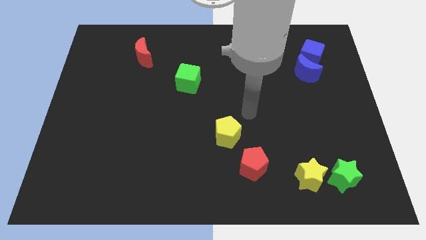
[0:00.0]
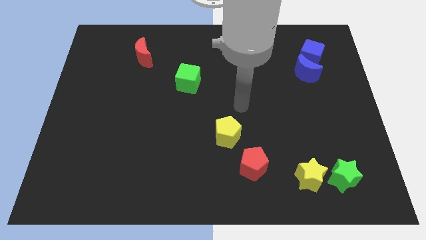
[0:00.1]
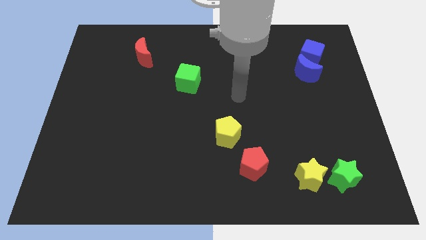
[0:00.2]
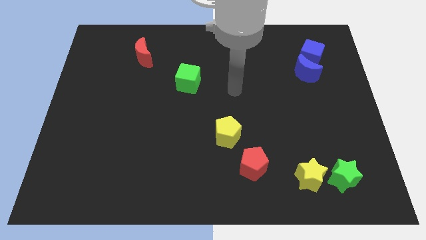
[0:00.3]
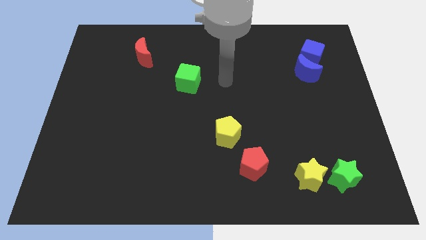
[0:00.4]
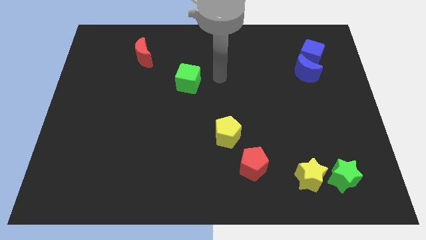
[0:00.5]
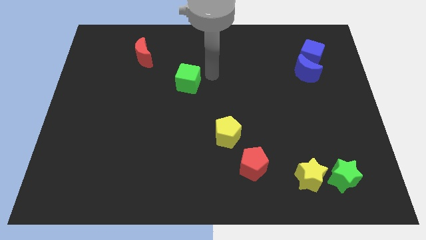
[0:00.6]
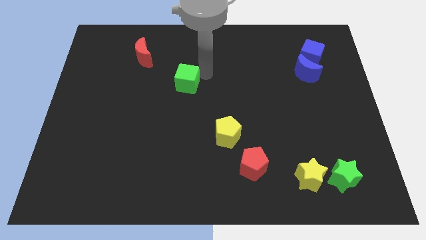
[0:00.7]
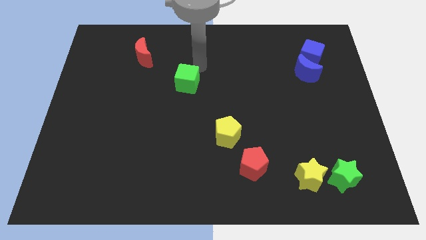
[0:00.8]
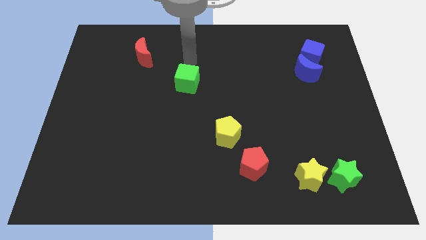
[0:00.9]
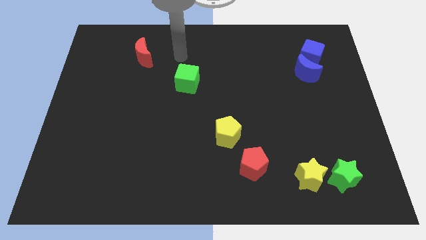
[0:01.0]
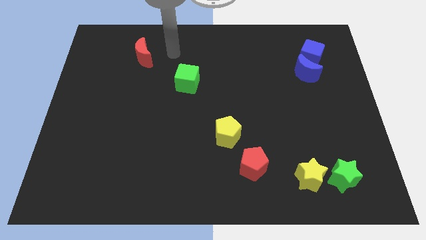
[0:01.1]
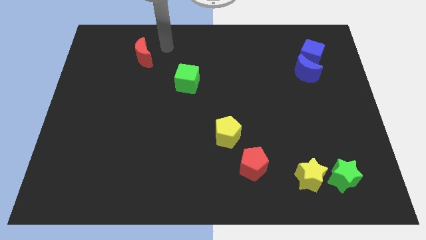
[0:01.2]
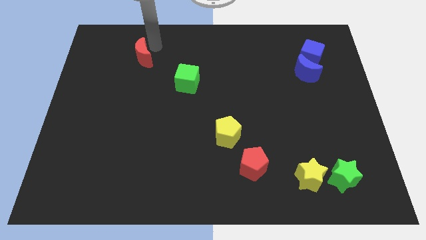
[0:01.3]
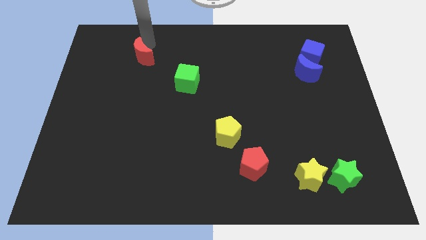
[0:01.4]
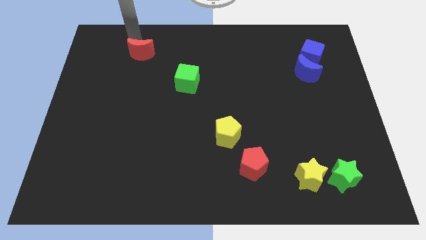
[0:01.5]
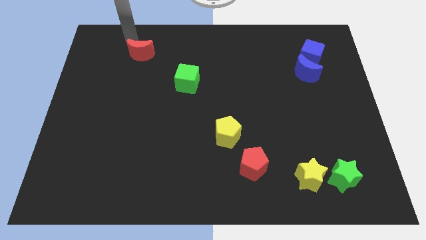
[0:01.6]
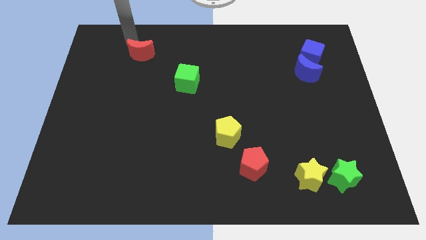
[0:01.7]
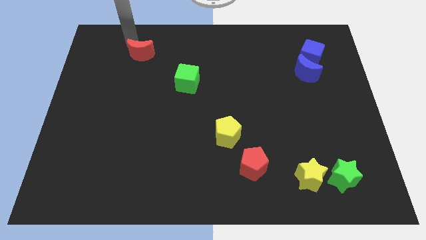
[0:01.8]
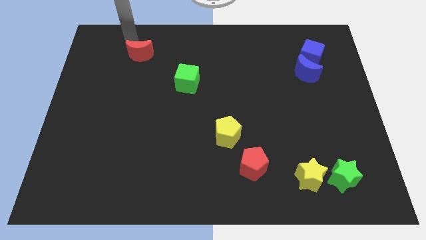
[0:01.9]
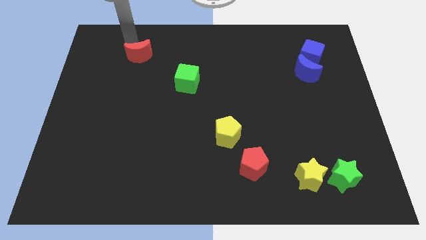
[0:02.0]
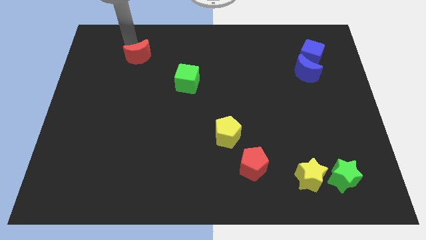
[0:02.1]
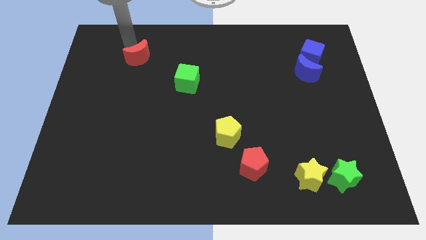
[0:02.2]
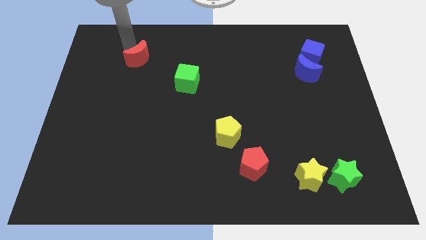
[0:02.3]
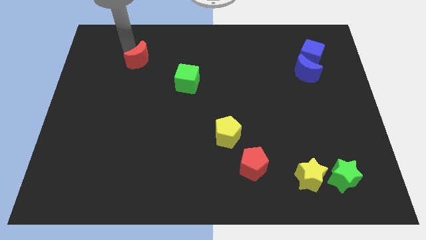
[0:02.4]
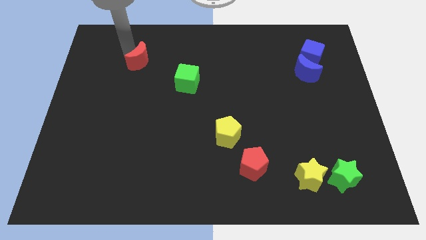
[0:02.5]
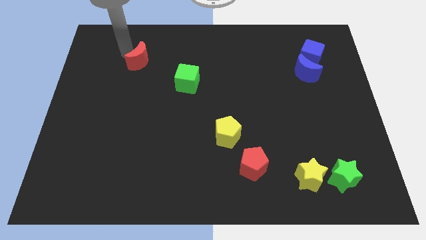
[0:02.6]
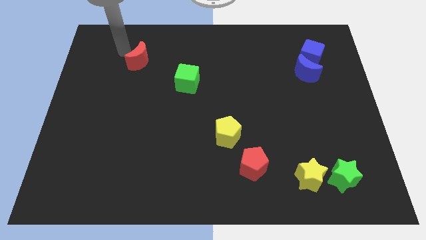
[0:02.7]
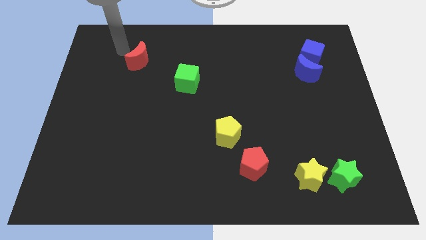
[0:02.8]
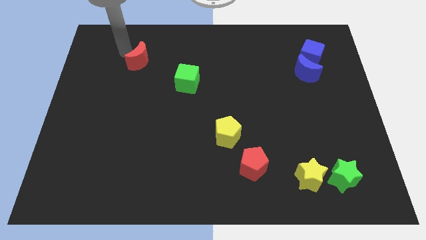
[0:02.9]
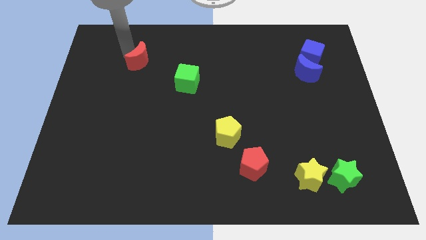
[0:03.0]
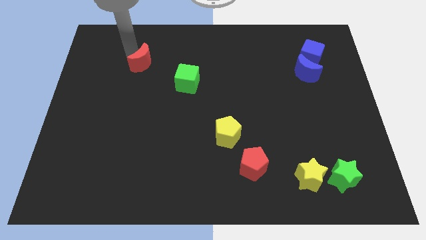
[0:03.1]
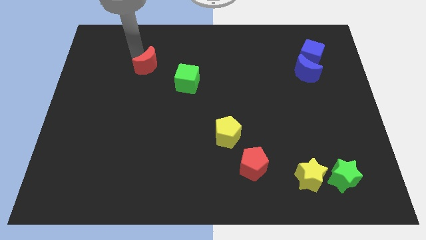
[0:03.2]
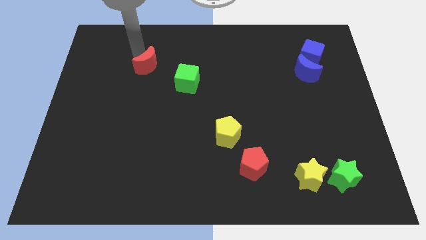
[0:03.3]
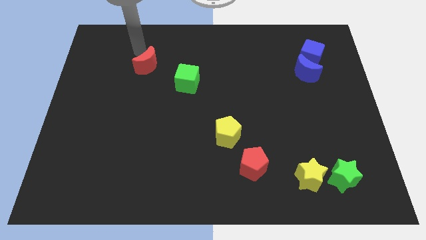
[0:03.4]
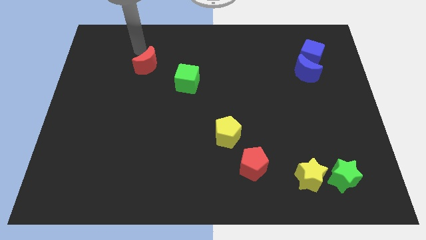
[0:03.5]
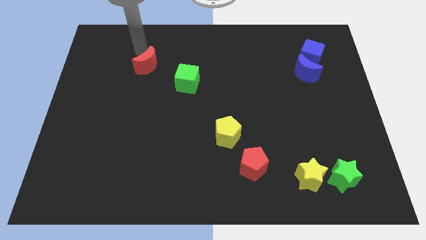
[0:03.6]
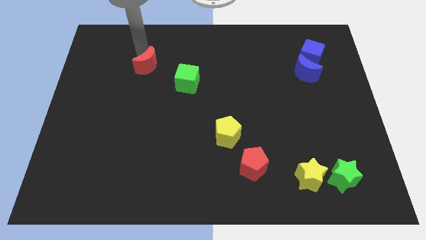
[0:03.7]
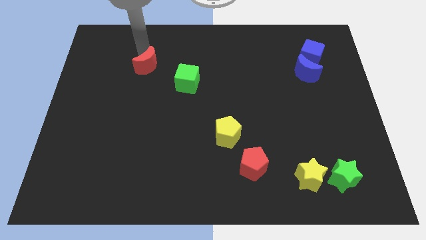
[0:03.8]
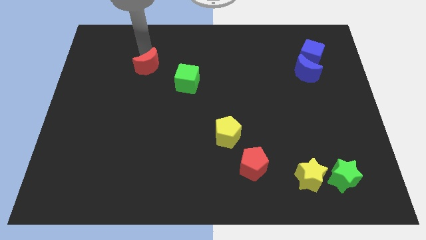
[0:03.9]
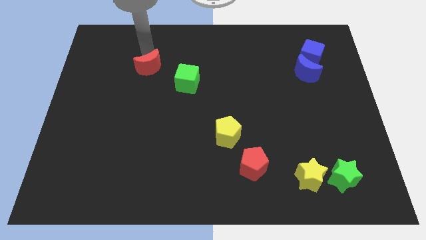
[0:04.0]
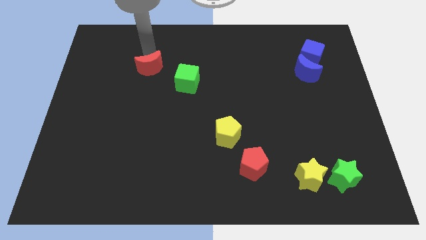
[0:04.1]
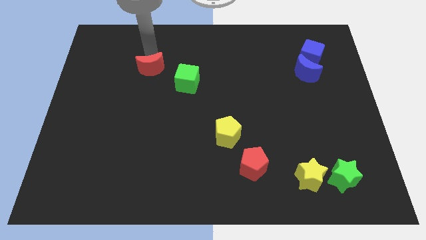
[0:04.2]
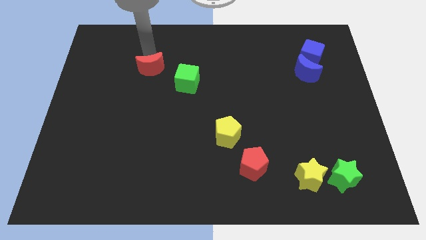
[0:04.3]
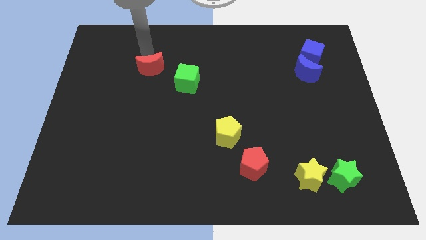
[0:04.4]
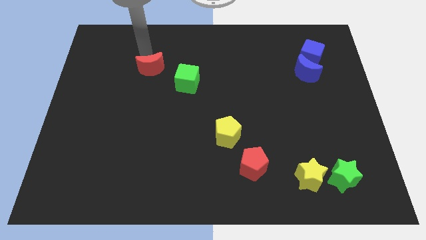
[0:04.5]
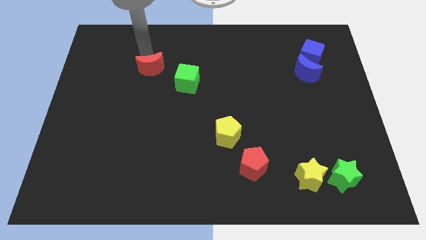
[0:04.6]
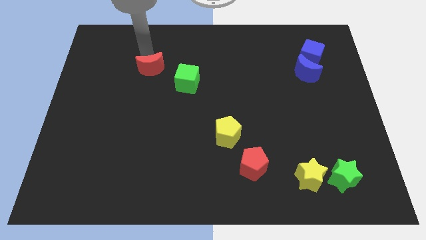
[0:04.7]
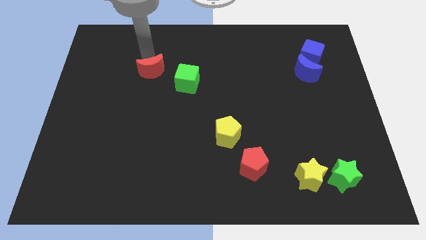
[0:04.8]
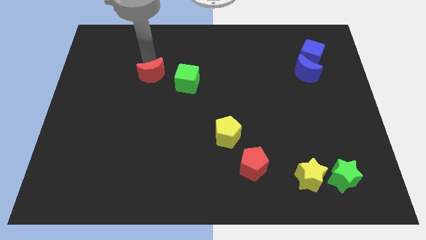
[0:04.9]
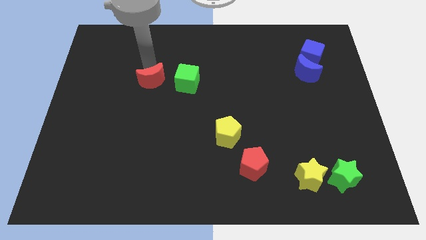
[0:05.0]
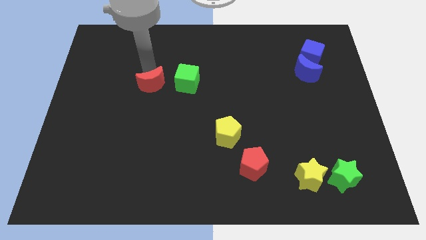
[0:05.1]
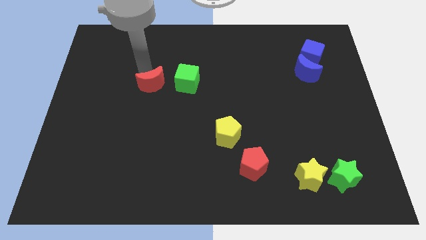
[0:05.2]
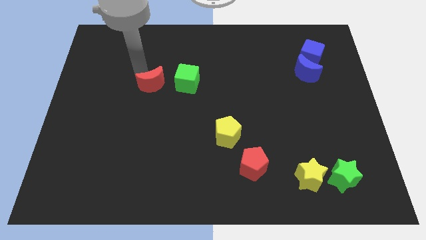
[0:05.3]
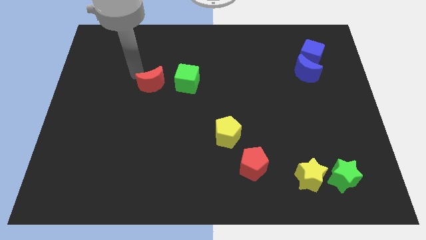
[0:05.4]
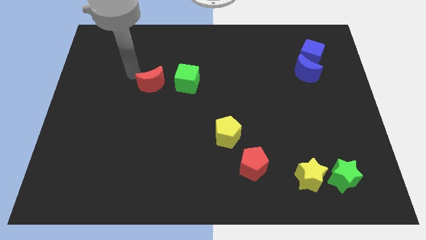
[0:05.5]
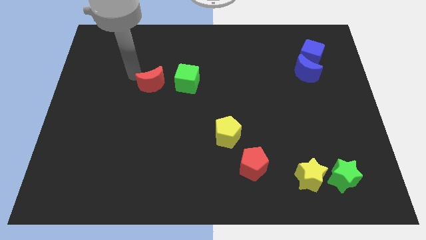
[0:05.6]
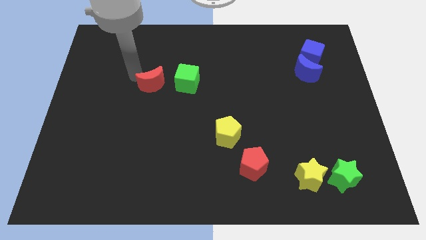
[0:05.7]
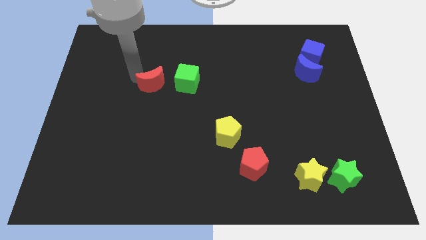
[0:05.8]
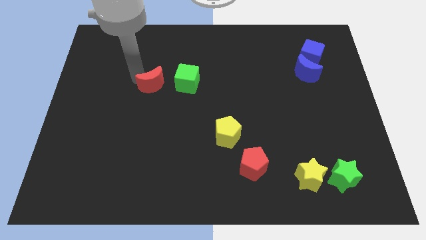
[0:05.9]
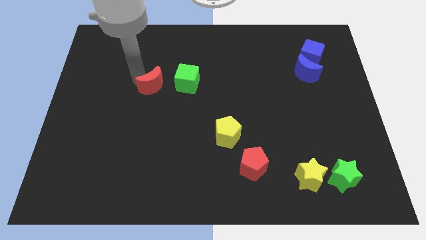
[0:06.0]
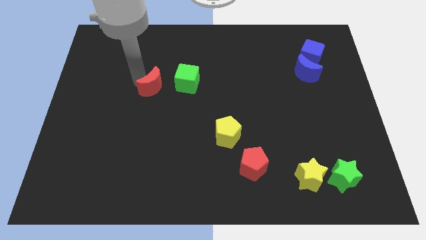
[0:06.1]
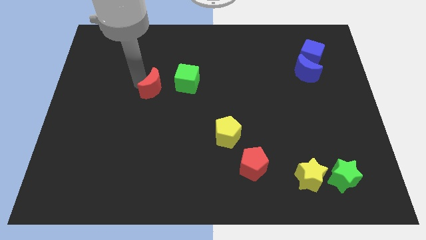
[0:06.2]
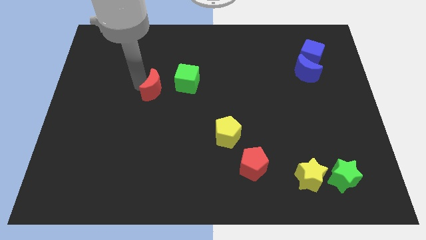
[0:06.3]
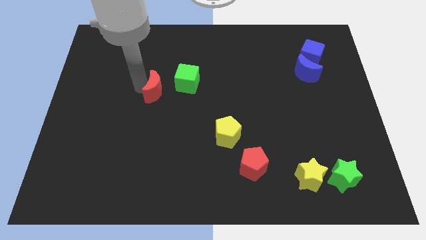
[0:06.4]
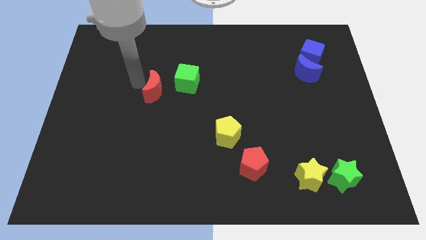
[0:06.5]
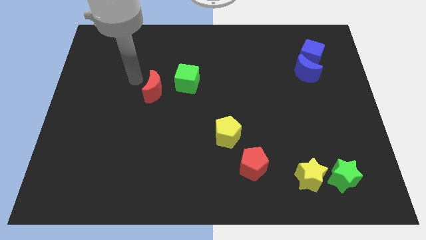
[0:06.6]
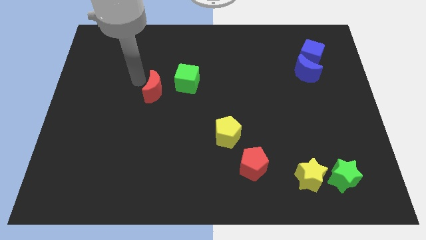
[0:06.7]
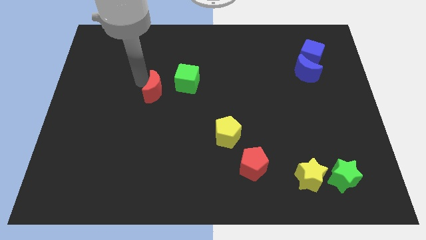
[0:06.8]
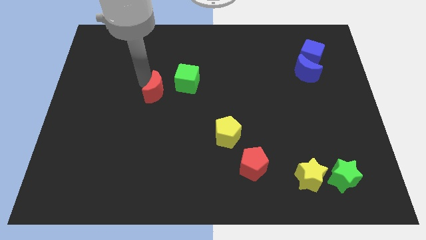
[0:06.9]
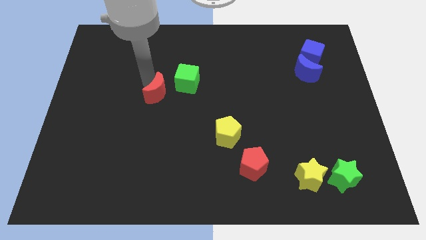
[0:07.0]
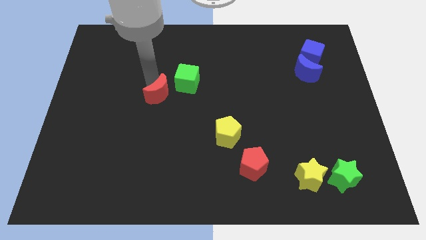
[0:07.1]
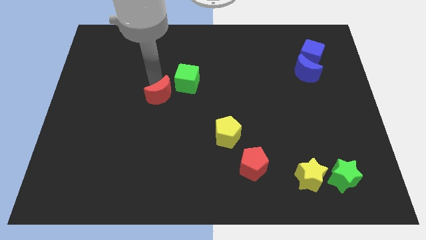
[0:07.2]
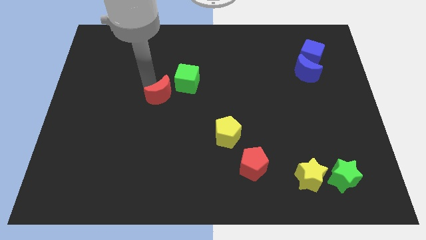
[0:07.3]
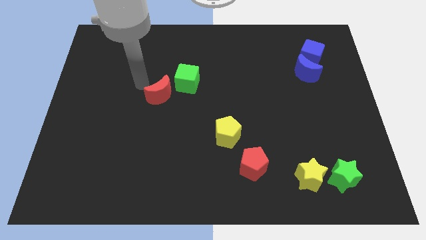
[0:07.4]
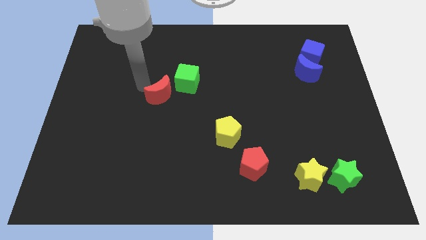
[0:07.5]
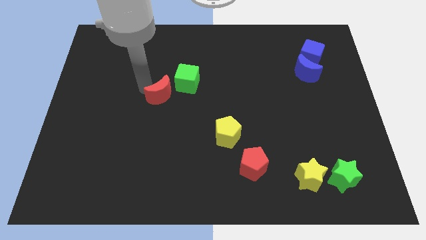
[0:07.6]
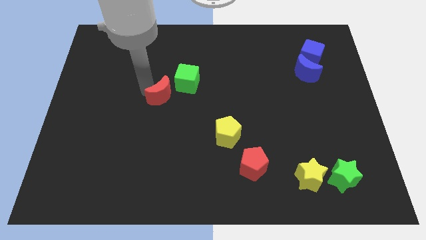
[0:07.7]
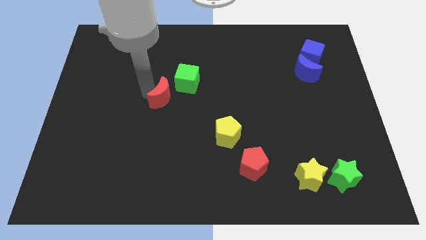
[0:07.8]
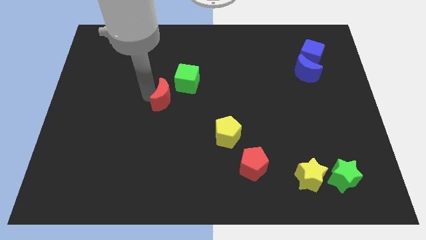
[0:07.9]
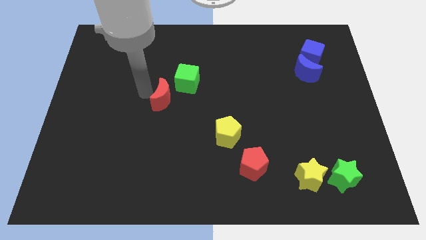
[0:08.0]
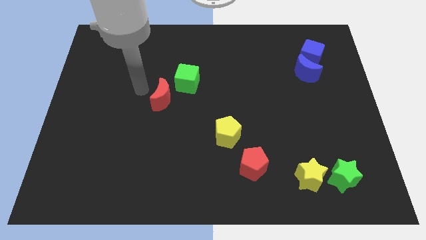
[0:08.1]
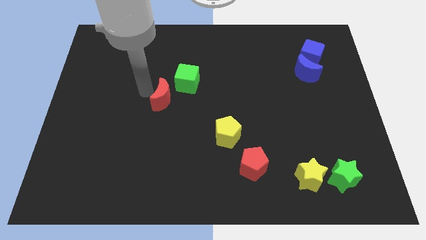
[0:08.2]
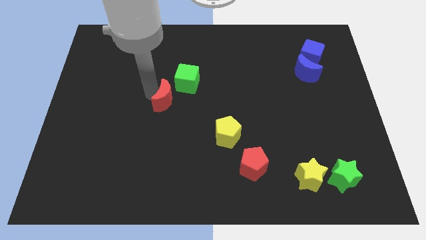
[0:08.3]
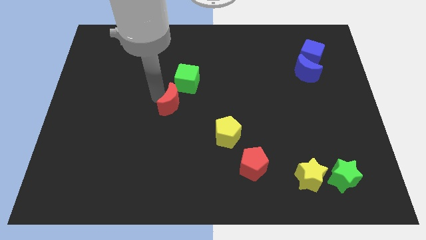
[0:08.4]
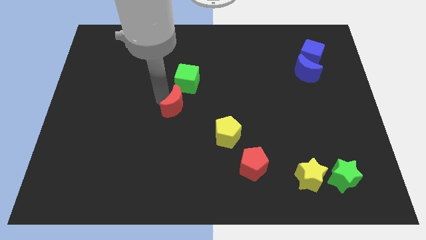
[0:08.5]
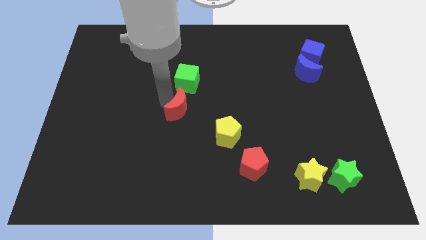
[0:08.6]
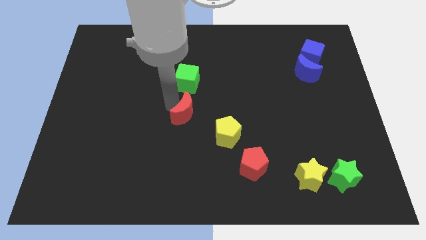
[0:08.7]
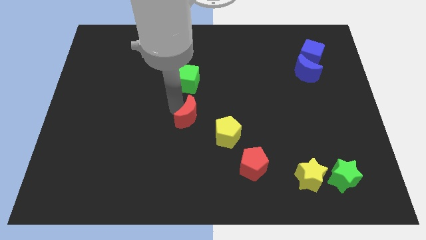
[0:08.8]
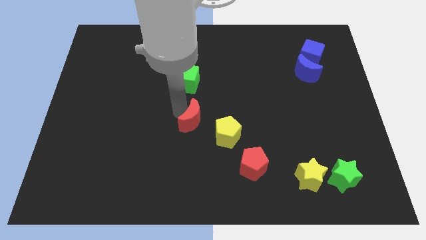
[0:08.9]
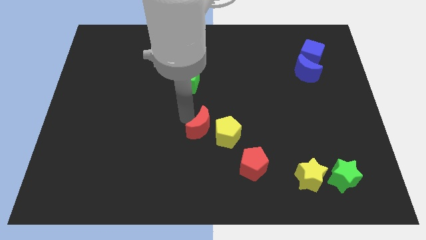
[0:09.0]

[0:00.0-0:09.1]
put the red moon next to the yellow pentagon
